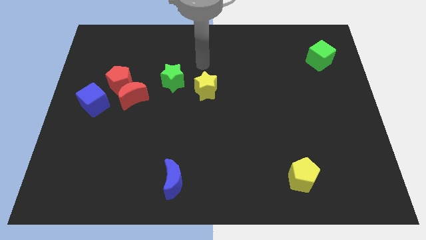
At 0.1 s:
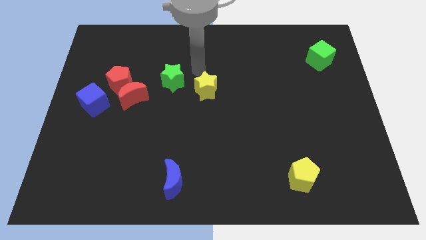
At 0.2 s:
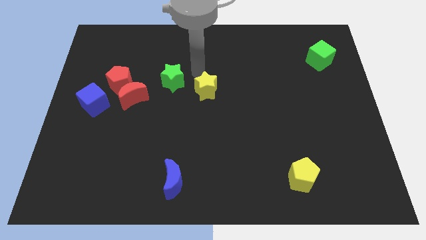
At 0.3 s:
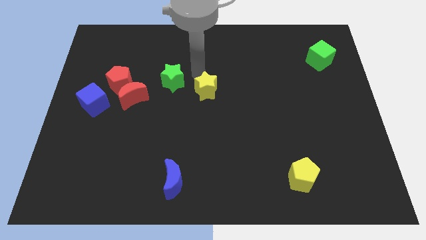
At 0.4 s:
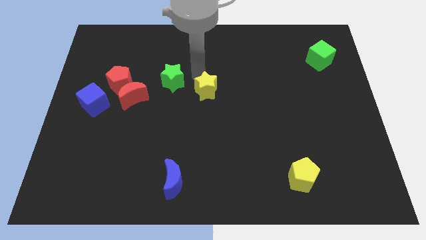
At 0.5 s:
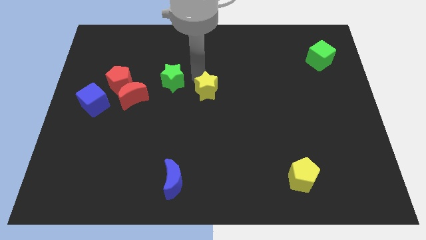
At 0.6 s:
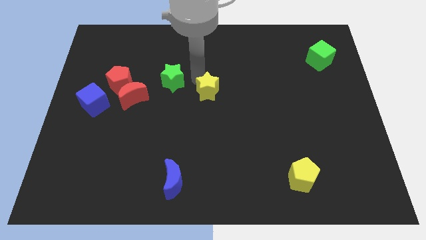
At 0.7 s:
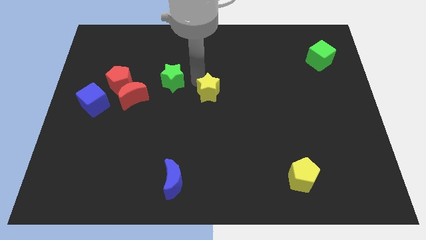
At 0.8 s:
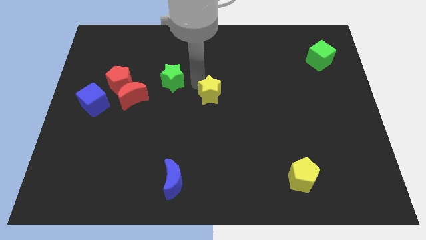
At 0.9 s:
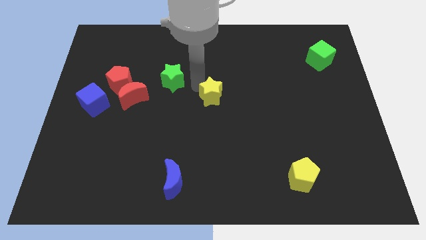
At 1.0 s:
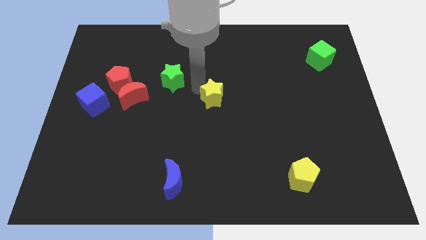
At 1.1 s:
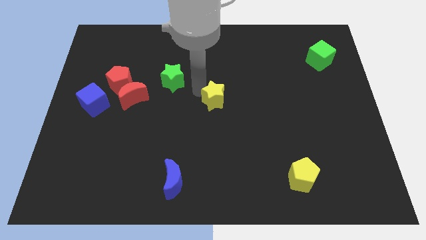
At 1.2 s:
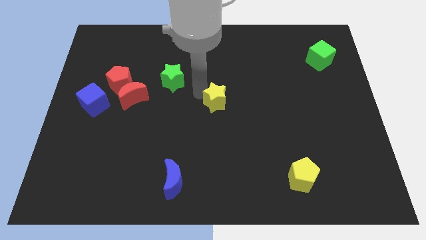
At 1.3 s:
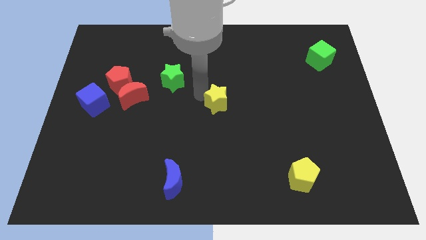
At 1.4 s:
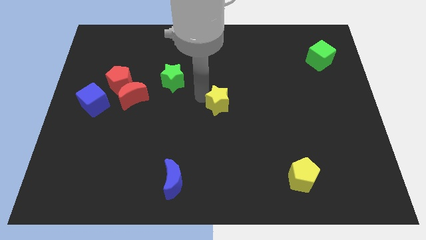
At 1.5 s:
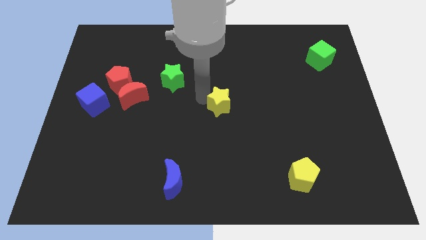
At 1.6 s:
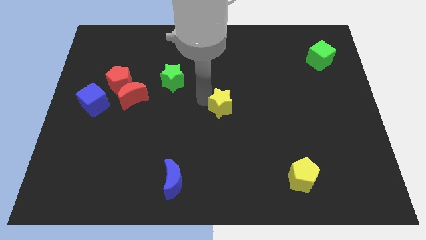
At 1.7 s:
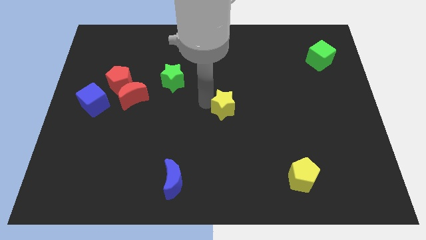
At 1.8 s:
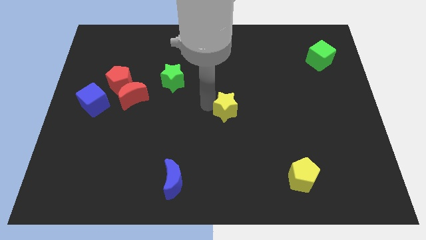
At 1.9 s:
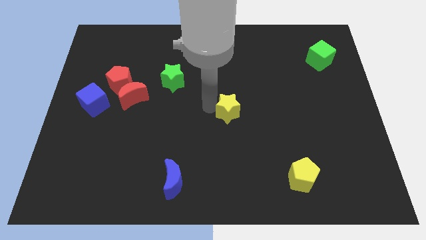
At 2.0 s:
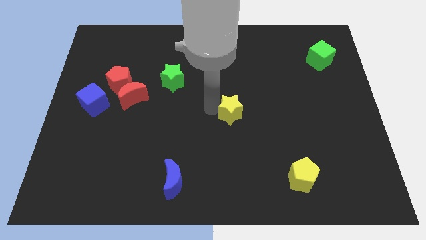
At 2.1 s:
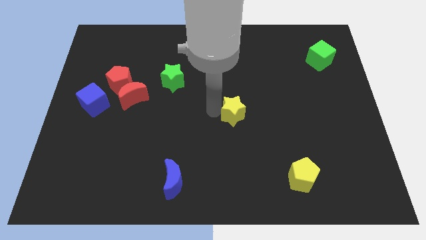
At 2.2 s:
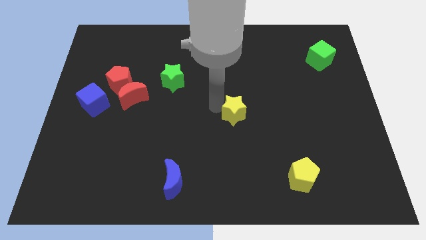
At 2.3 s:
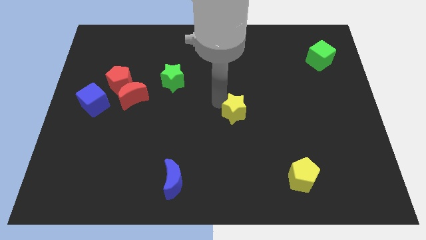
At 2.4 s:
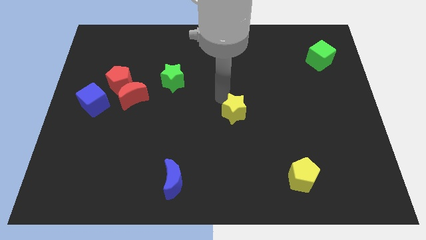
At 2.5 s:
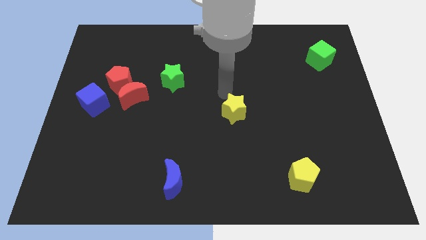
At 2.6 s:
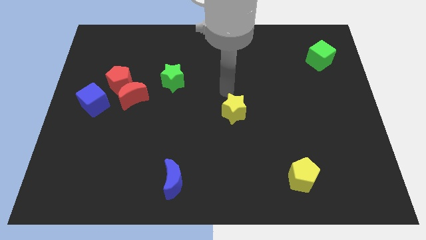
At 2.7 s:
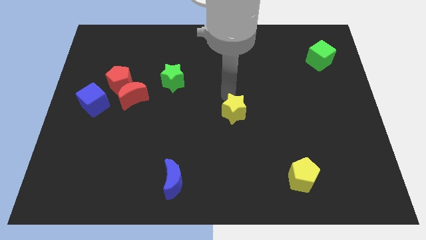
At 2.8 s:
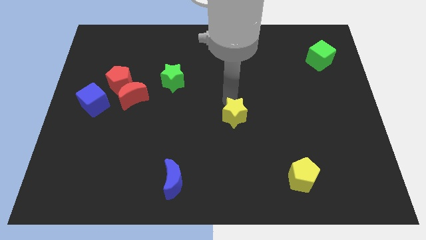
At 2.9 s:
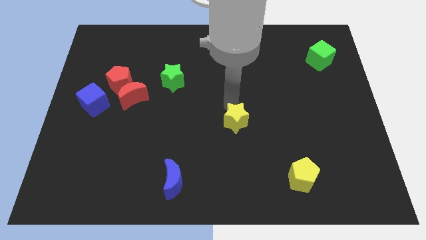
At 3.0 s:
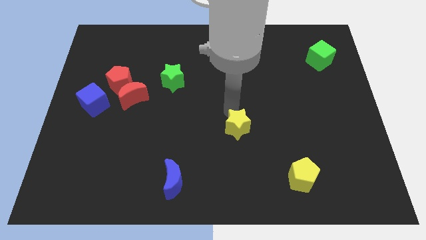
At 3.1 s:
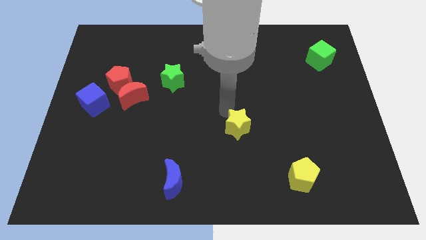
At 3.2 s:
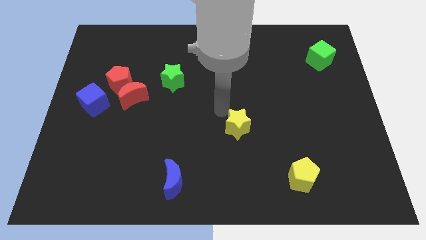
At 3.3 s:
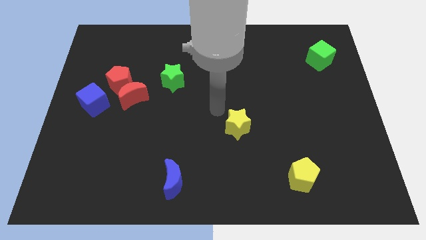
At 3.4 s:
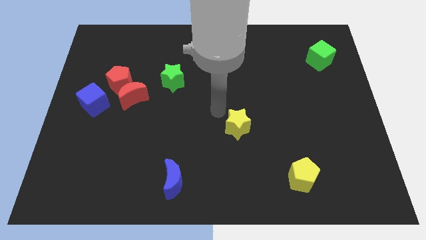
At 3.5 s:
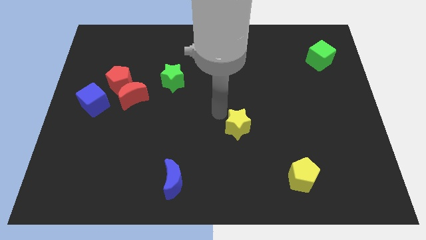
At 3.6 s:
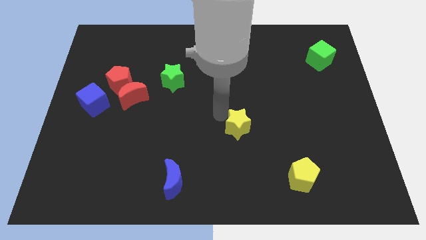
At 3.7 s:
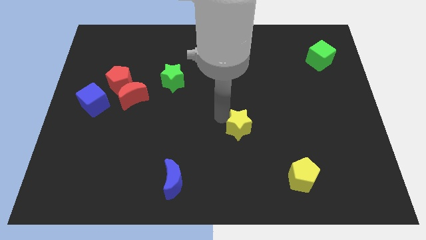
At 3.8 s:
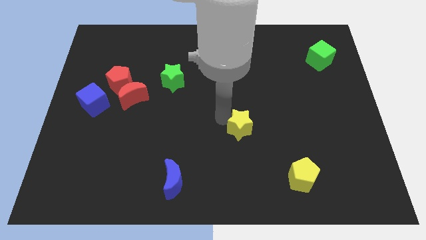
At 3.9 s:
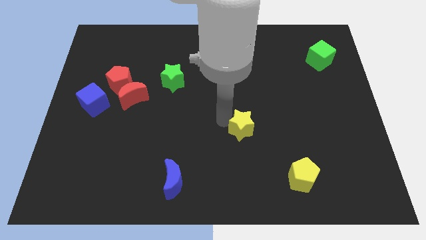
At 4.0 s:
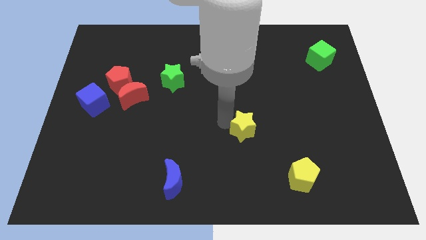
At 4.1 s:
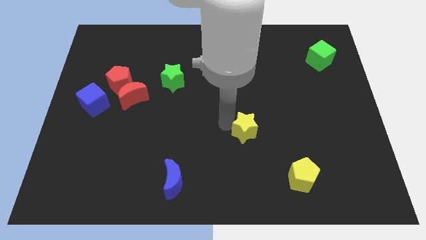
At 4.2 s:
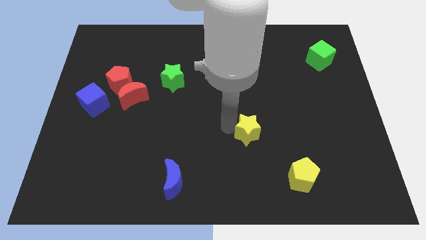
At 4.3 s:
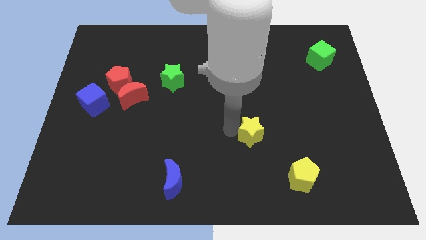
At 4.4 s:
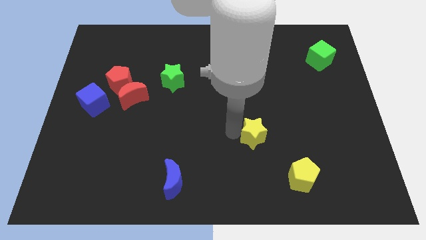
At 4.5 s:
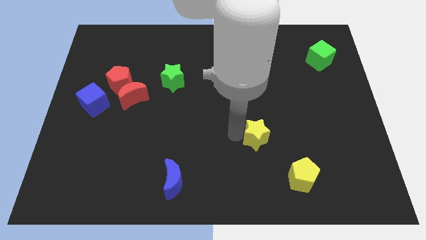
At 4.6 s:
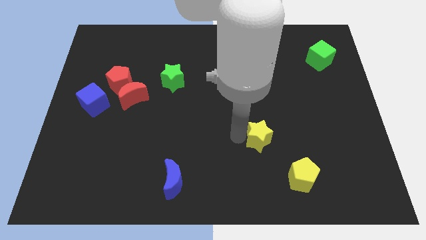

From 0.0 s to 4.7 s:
slide the yellow star to the top left of the yellow pentagon

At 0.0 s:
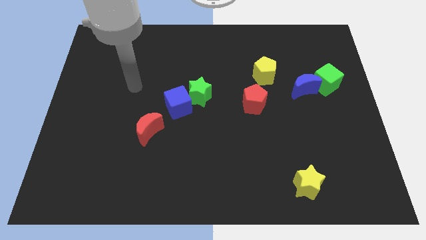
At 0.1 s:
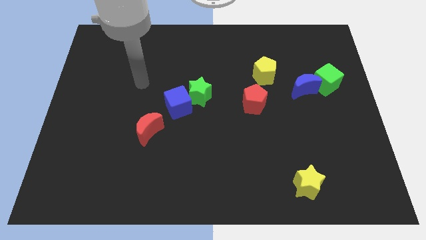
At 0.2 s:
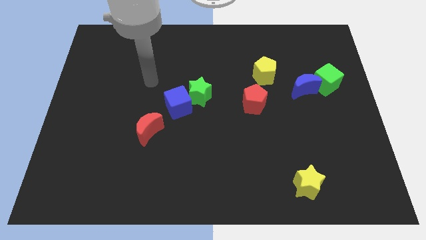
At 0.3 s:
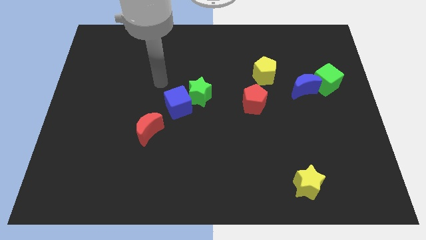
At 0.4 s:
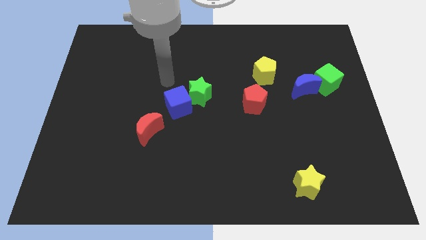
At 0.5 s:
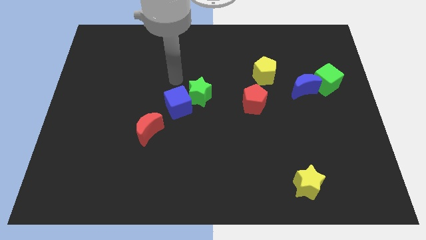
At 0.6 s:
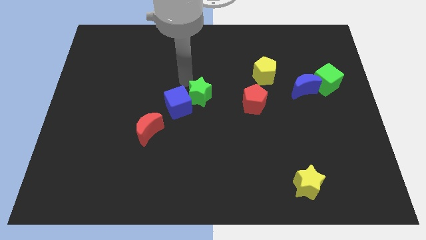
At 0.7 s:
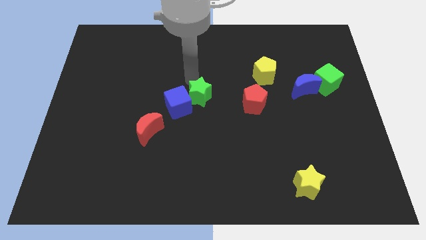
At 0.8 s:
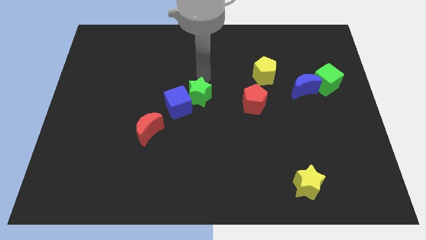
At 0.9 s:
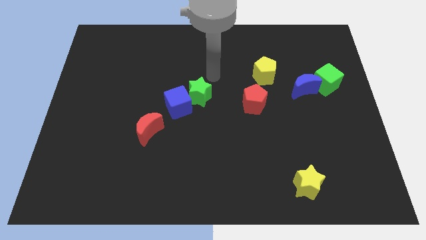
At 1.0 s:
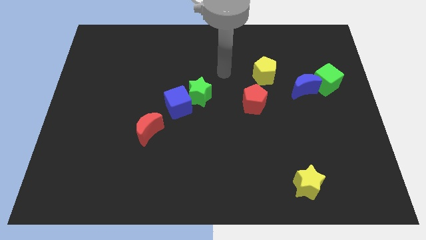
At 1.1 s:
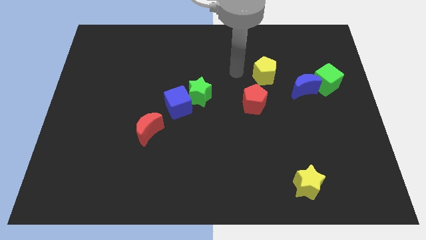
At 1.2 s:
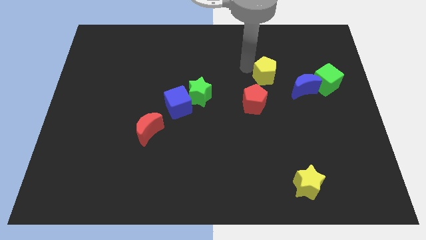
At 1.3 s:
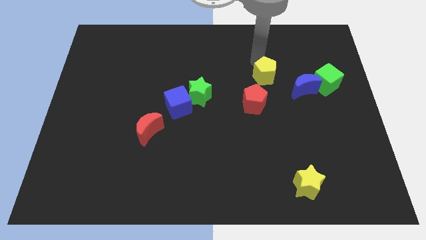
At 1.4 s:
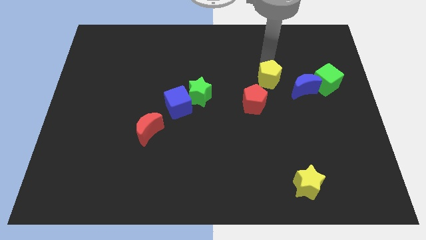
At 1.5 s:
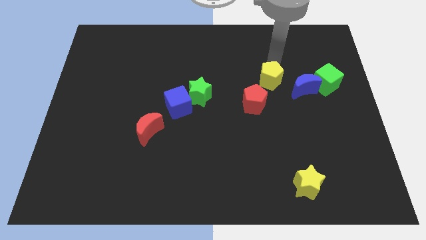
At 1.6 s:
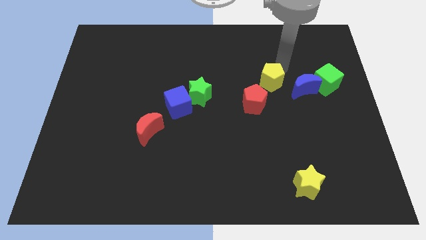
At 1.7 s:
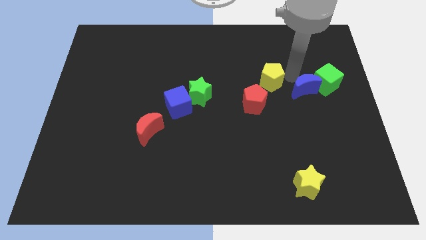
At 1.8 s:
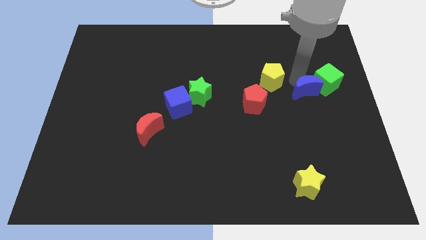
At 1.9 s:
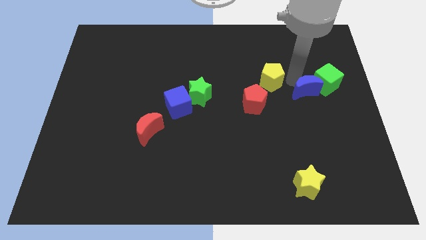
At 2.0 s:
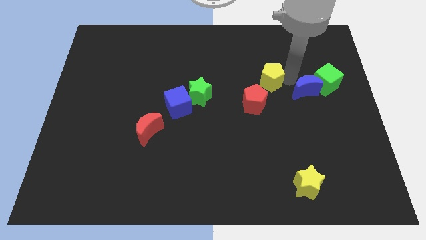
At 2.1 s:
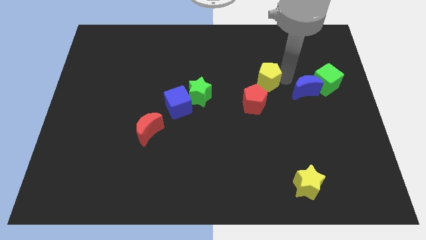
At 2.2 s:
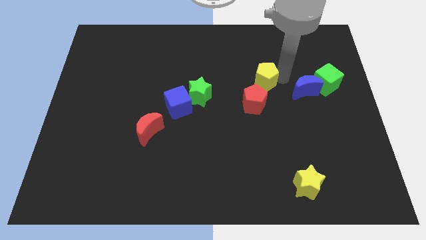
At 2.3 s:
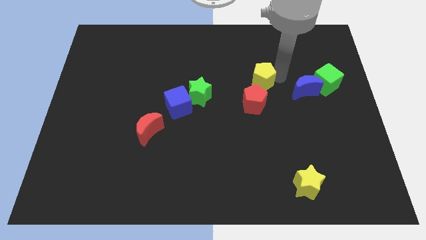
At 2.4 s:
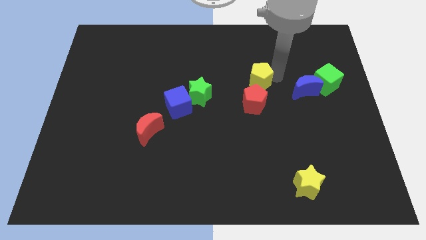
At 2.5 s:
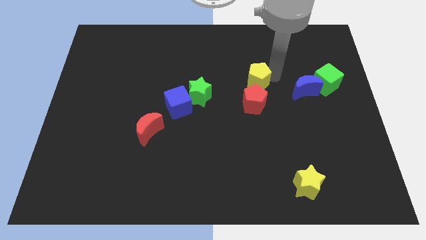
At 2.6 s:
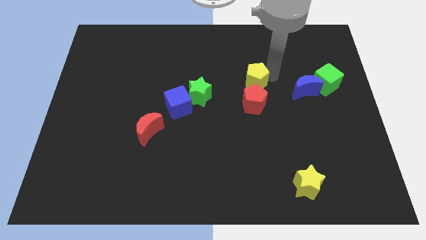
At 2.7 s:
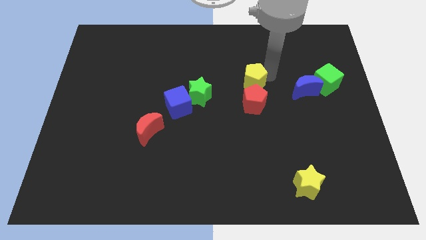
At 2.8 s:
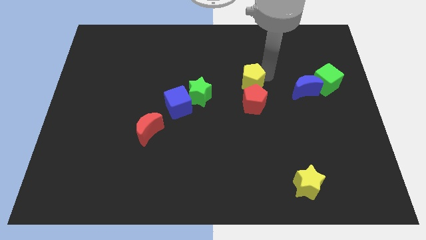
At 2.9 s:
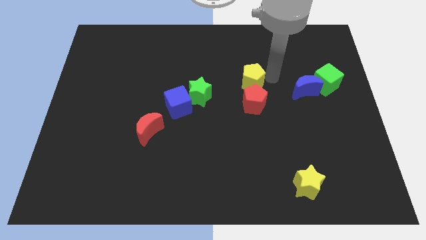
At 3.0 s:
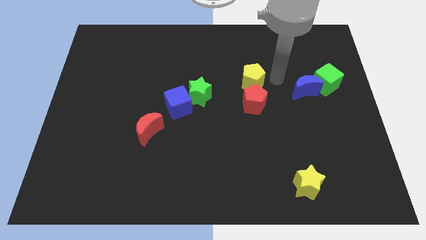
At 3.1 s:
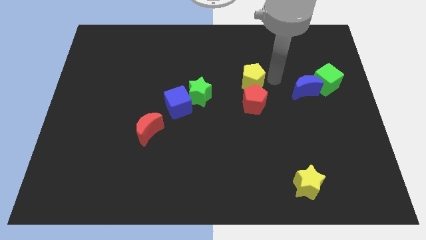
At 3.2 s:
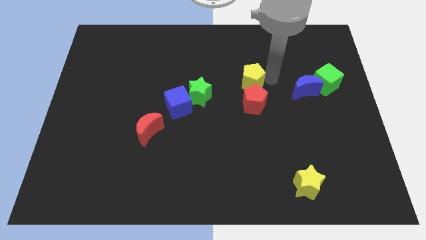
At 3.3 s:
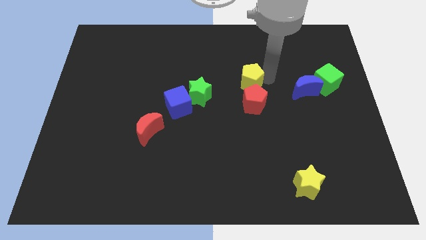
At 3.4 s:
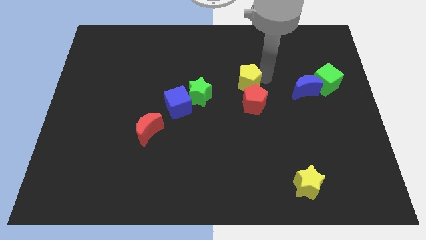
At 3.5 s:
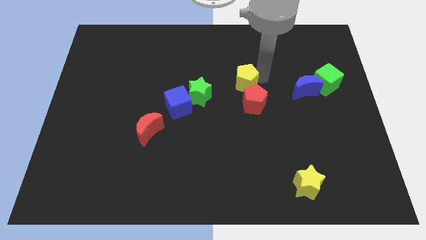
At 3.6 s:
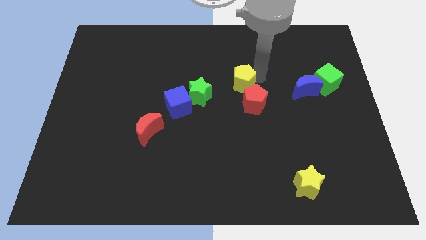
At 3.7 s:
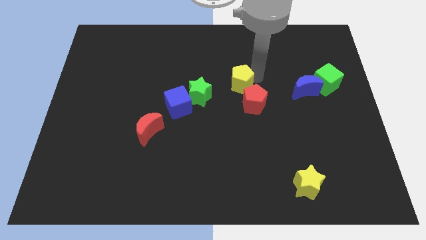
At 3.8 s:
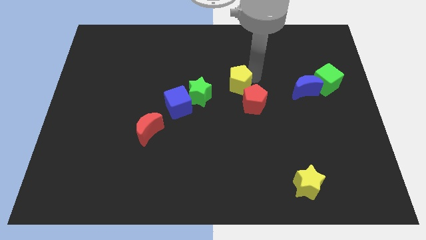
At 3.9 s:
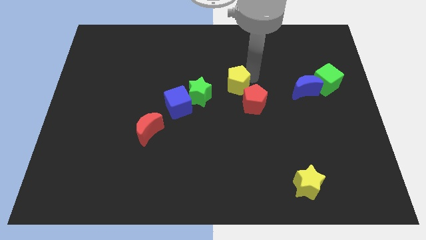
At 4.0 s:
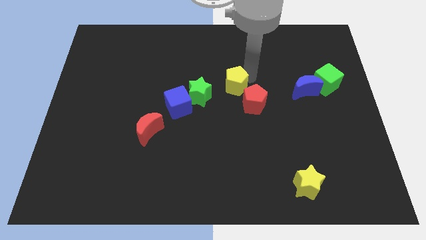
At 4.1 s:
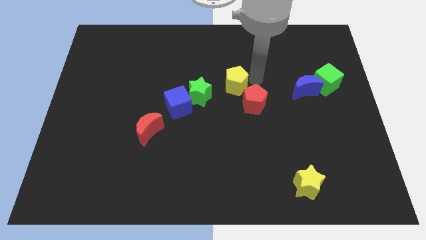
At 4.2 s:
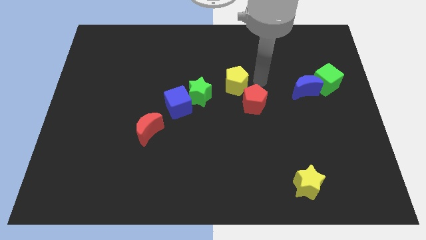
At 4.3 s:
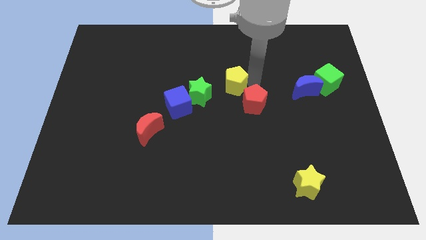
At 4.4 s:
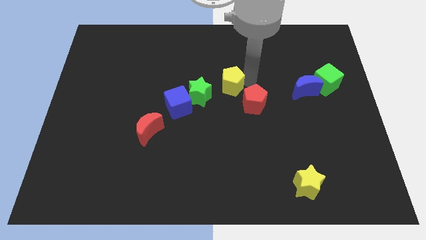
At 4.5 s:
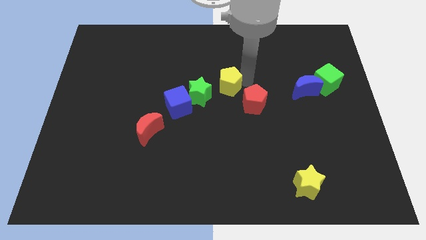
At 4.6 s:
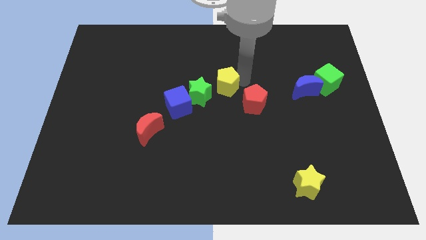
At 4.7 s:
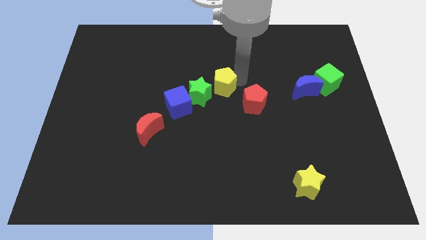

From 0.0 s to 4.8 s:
put the yellow pentagon to the top right of the blue cube
